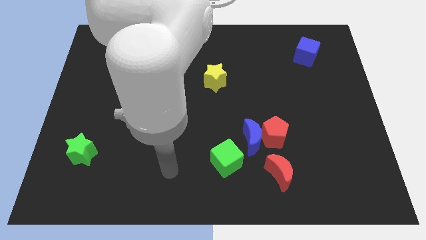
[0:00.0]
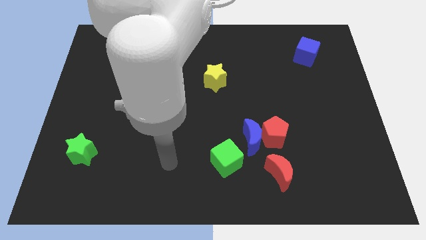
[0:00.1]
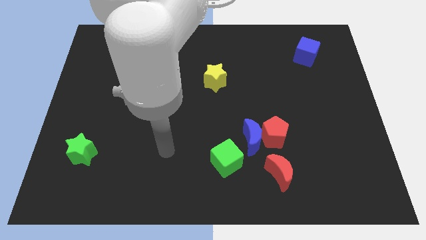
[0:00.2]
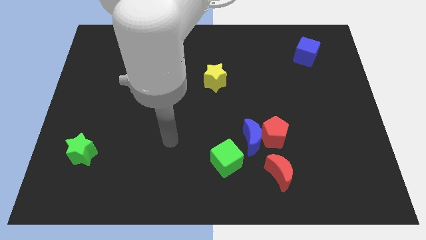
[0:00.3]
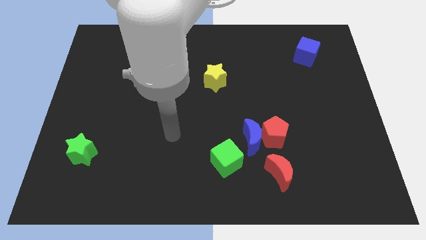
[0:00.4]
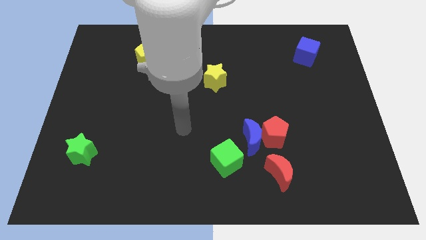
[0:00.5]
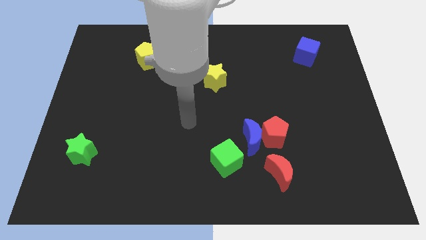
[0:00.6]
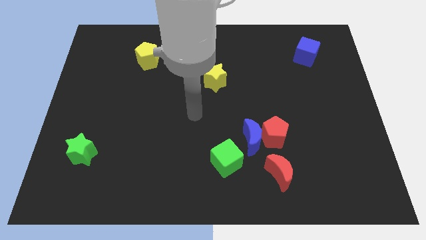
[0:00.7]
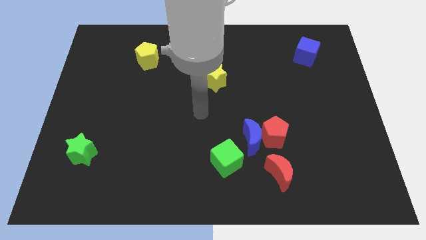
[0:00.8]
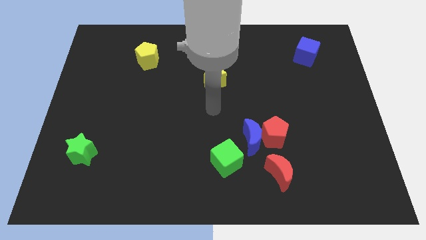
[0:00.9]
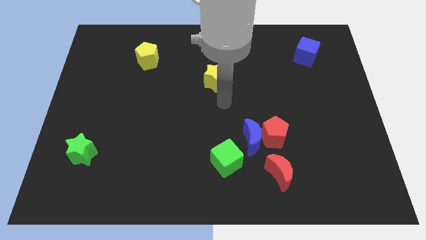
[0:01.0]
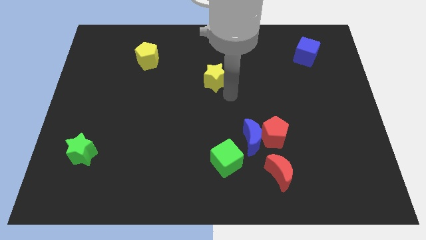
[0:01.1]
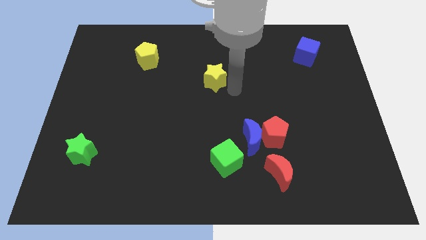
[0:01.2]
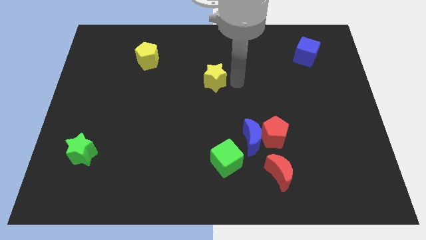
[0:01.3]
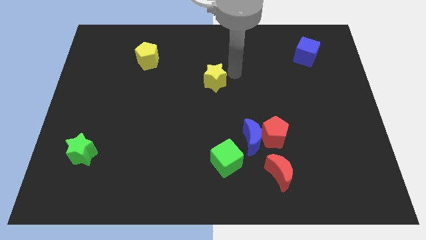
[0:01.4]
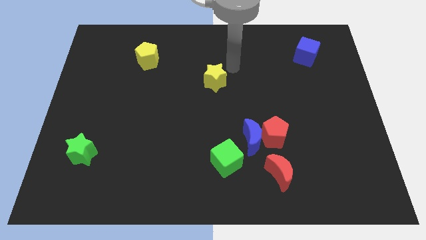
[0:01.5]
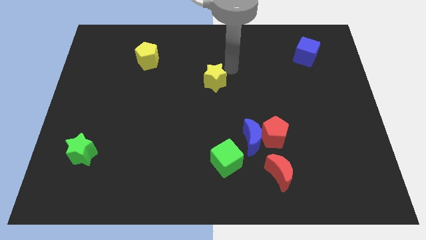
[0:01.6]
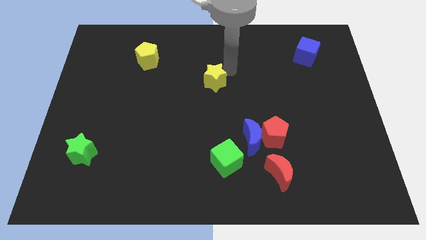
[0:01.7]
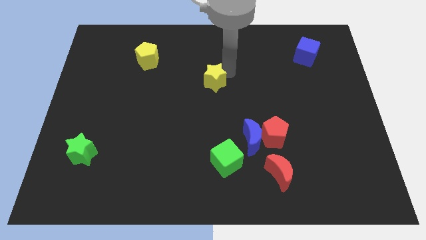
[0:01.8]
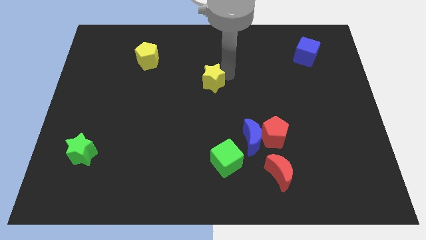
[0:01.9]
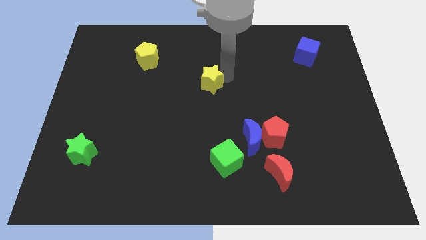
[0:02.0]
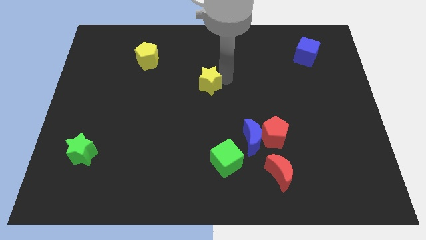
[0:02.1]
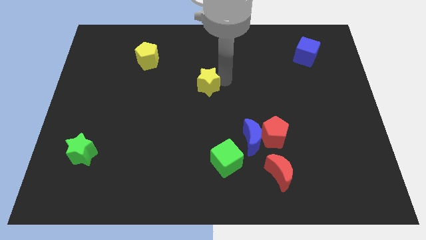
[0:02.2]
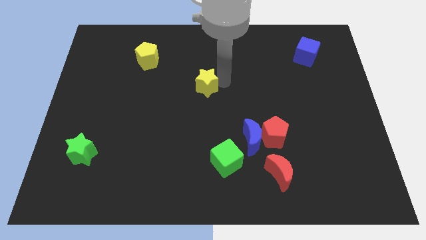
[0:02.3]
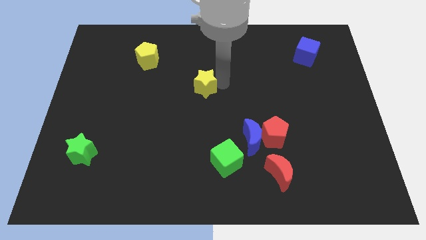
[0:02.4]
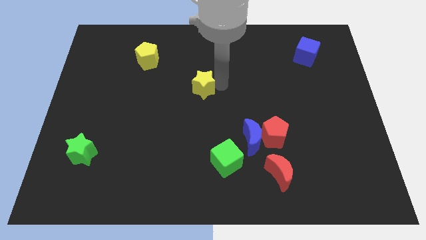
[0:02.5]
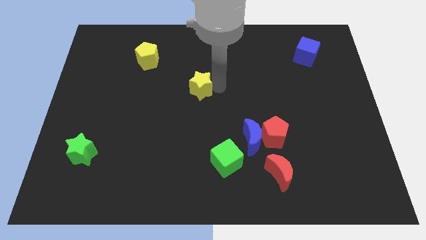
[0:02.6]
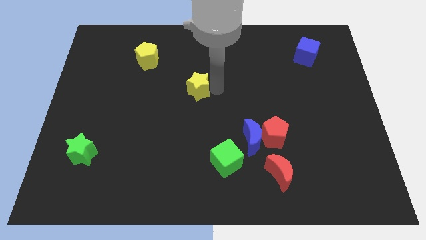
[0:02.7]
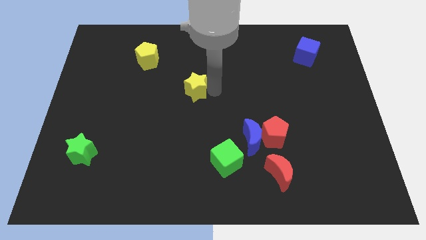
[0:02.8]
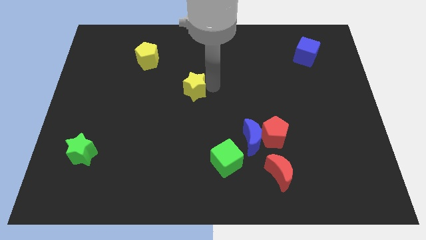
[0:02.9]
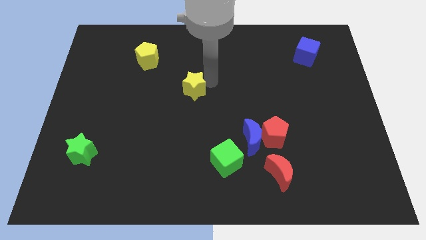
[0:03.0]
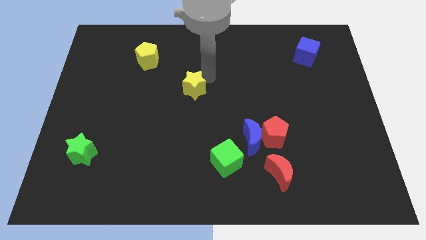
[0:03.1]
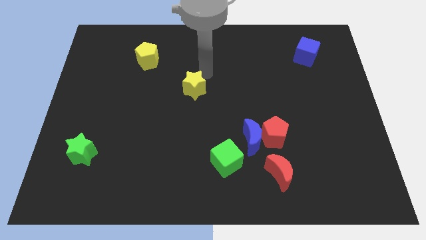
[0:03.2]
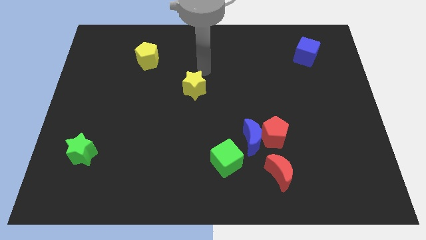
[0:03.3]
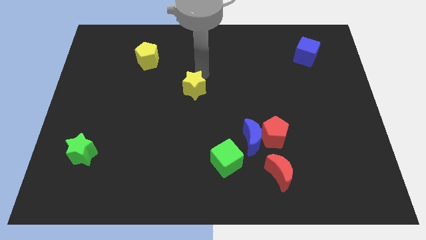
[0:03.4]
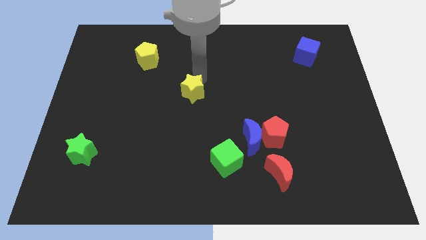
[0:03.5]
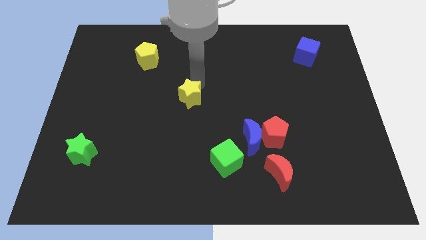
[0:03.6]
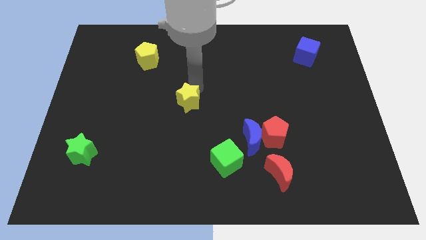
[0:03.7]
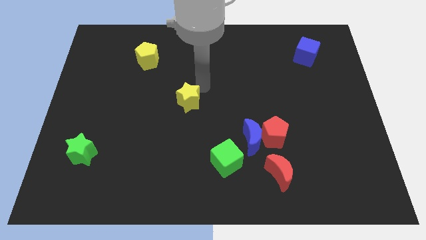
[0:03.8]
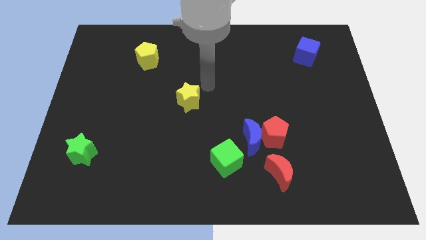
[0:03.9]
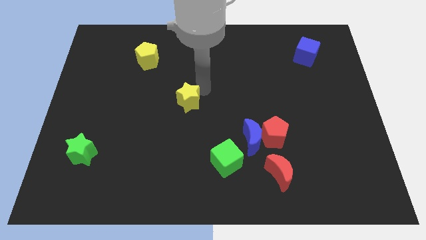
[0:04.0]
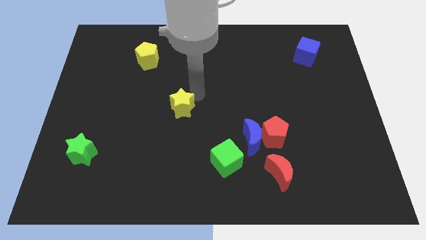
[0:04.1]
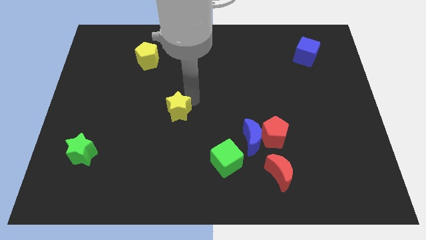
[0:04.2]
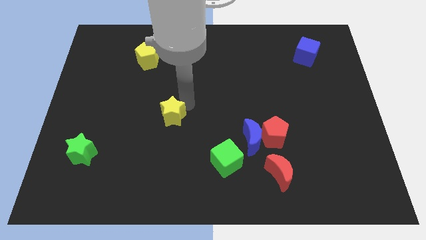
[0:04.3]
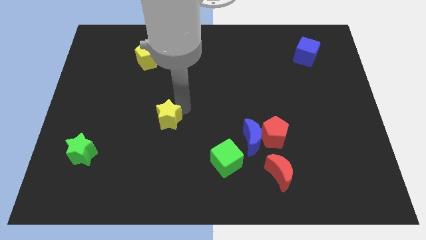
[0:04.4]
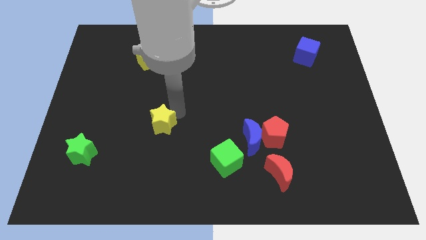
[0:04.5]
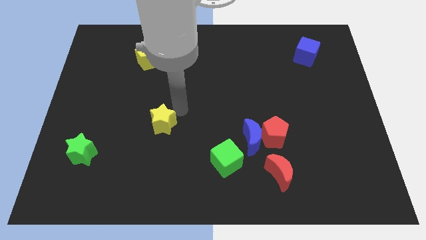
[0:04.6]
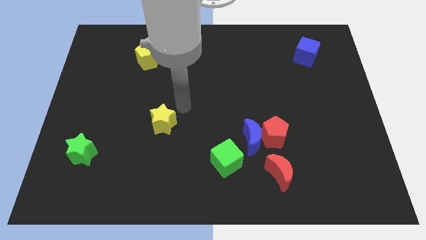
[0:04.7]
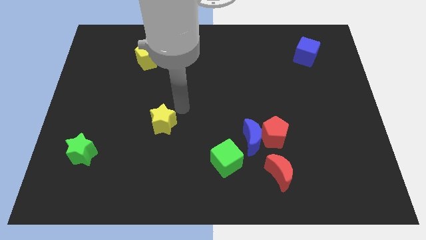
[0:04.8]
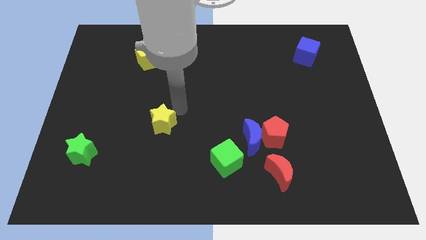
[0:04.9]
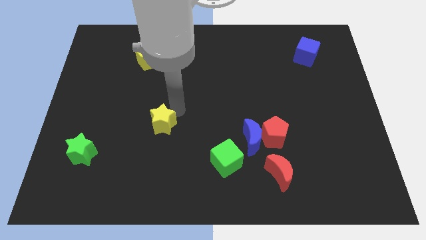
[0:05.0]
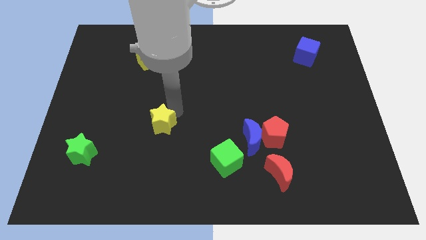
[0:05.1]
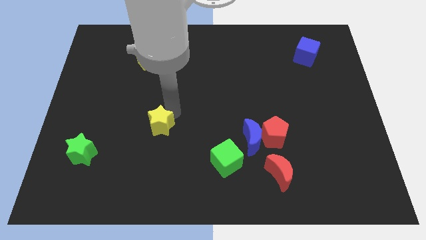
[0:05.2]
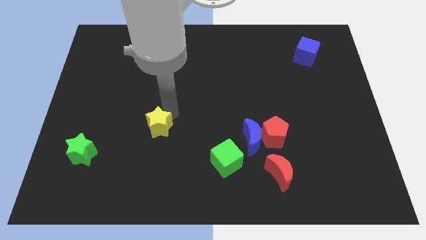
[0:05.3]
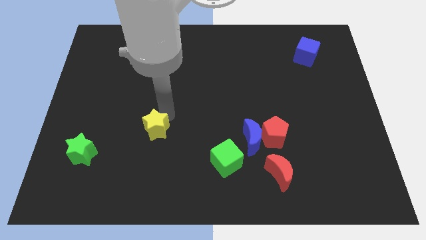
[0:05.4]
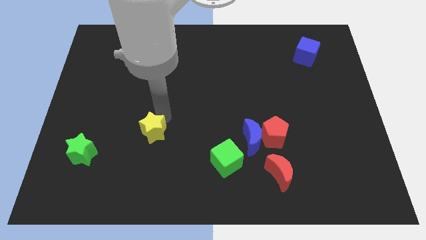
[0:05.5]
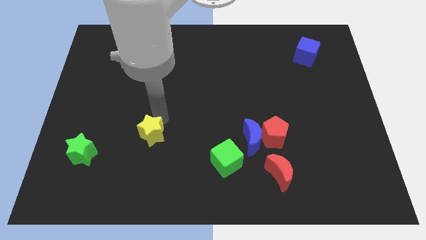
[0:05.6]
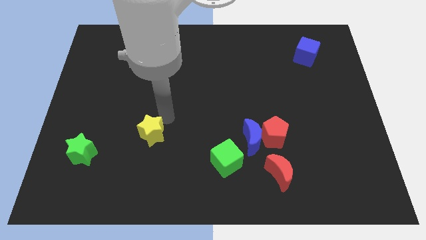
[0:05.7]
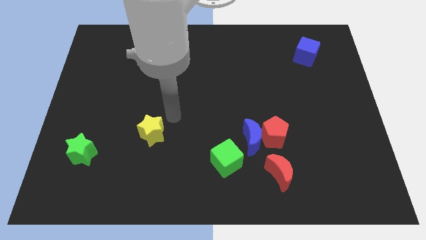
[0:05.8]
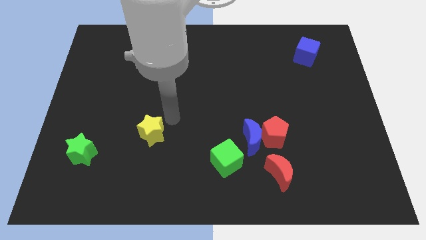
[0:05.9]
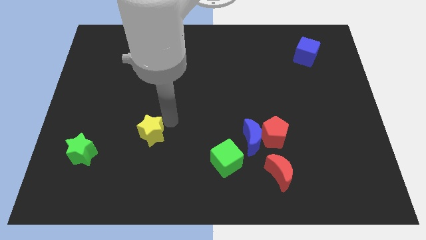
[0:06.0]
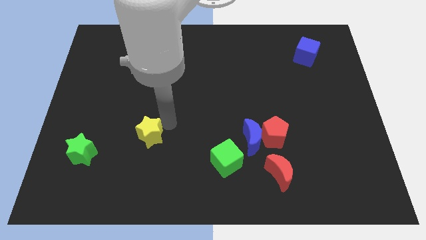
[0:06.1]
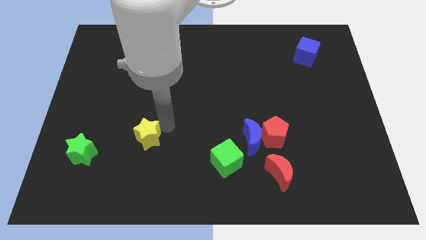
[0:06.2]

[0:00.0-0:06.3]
push the yellow star to the right of the green star

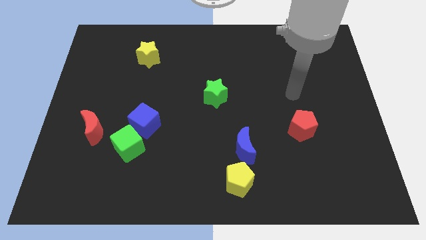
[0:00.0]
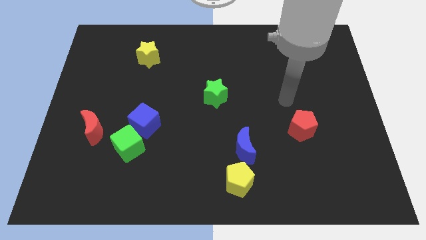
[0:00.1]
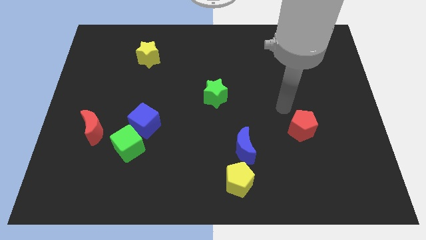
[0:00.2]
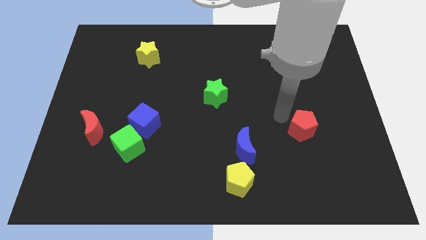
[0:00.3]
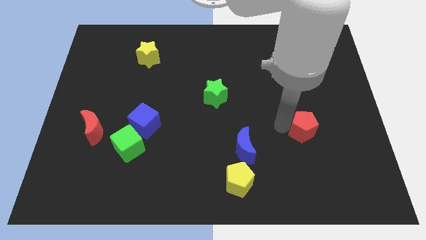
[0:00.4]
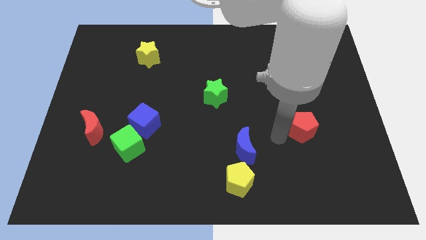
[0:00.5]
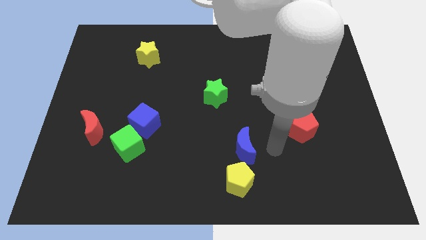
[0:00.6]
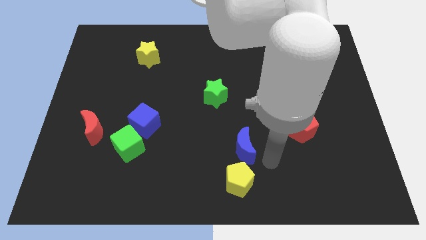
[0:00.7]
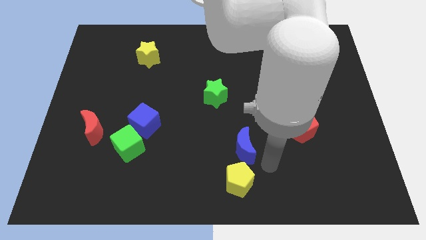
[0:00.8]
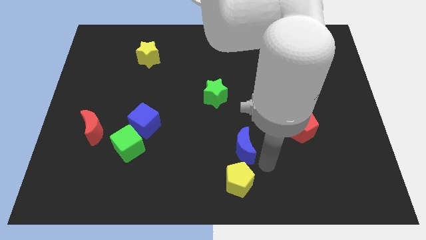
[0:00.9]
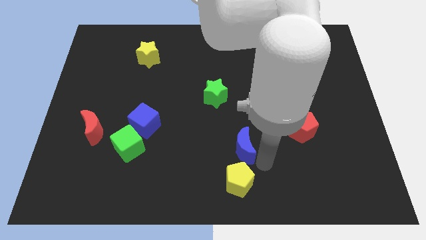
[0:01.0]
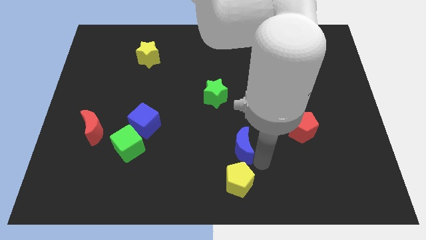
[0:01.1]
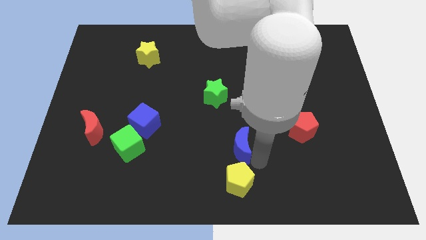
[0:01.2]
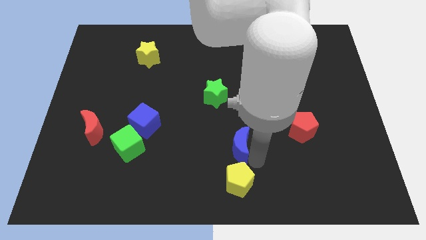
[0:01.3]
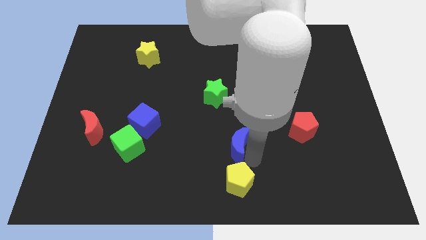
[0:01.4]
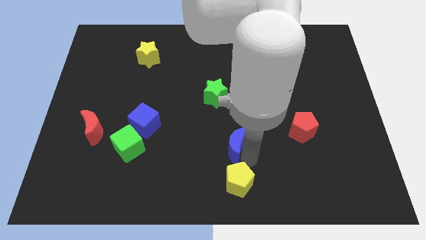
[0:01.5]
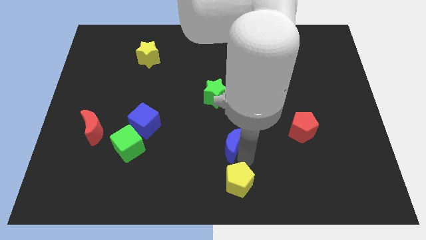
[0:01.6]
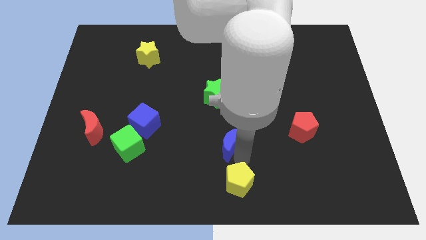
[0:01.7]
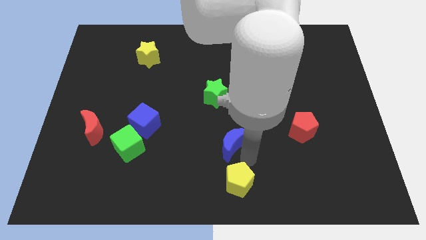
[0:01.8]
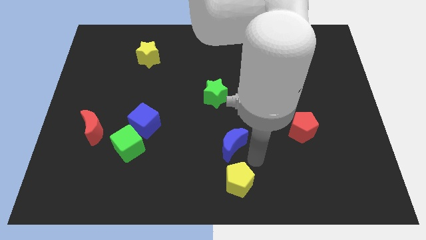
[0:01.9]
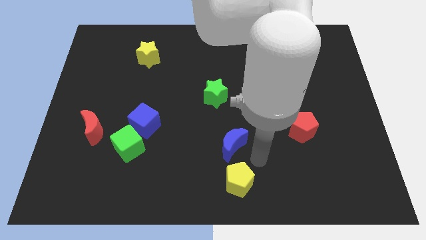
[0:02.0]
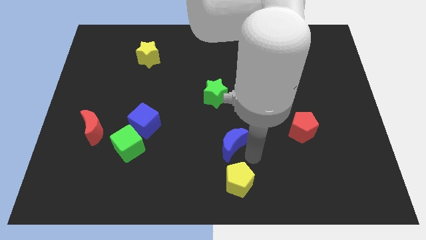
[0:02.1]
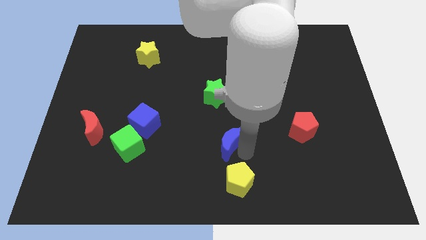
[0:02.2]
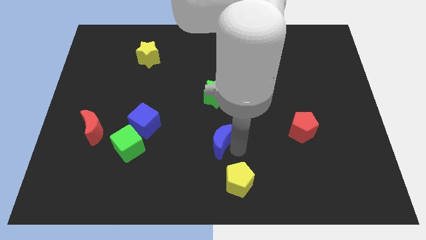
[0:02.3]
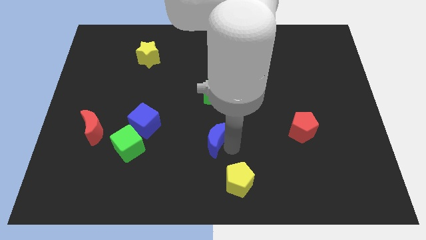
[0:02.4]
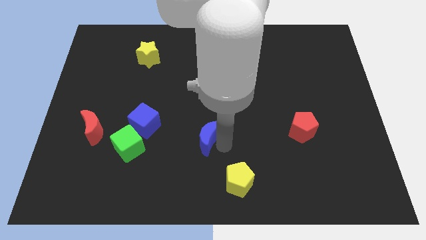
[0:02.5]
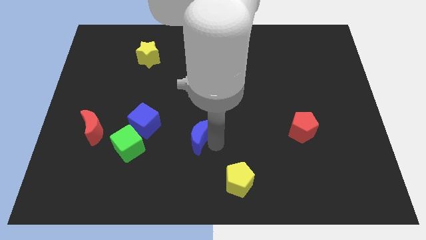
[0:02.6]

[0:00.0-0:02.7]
move the blue moon just right of the blue cube
